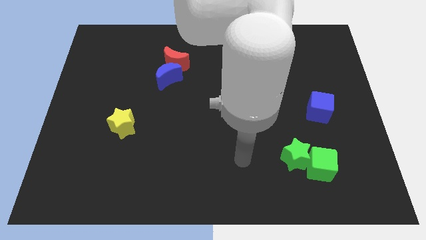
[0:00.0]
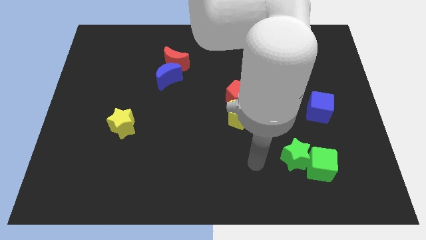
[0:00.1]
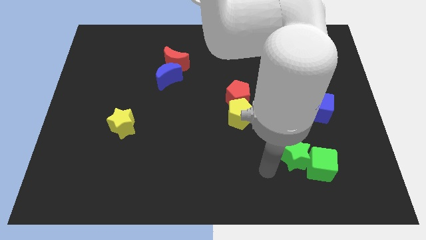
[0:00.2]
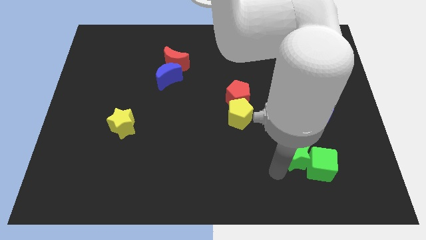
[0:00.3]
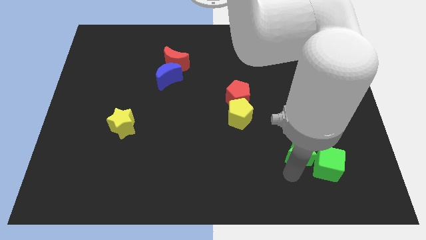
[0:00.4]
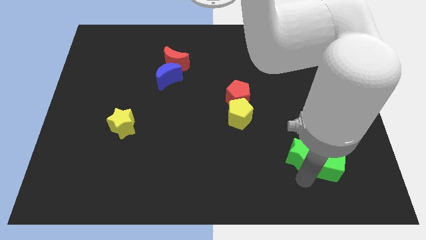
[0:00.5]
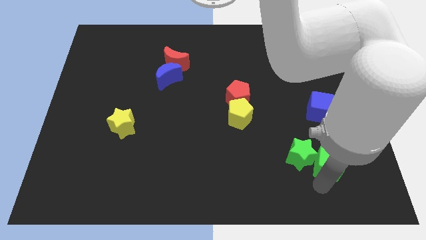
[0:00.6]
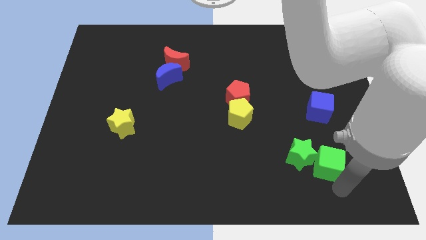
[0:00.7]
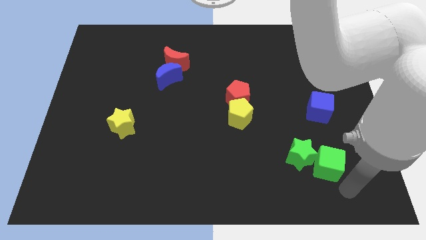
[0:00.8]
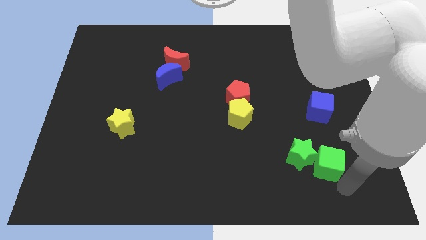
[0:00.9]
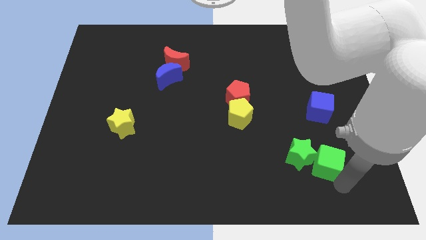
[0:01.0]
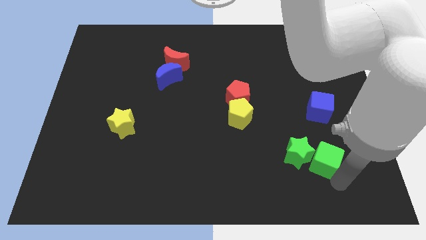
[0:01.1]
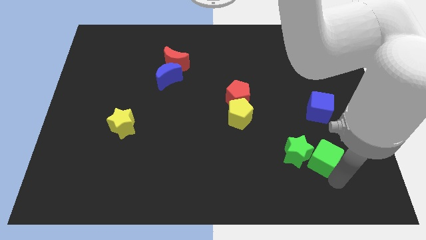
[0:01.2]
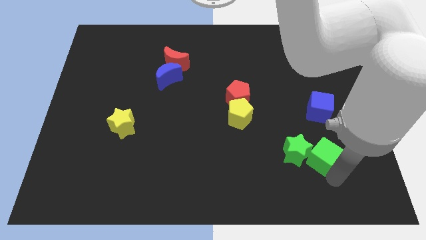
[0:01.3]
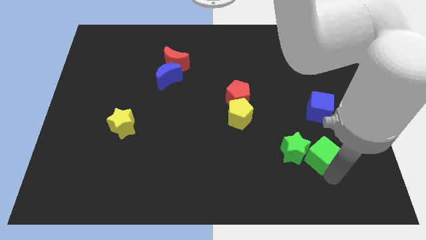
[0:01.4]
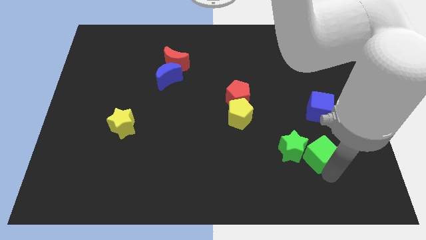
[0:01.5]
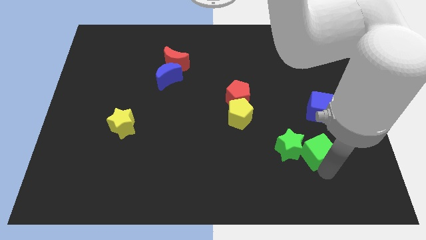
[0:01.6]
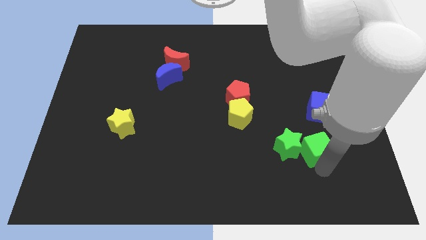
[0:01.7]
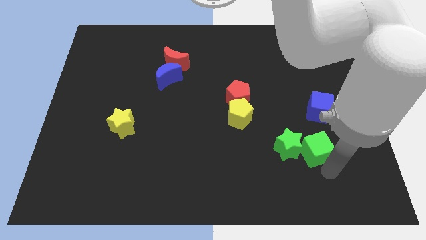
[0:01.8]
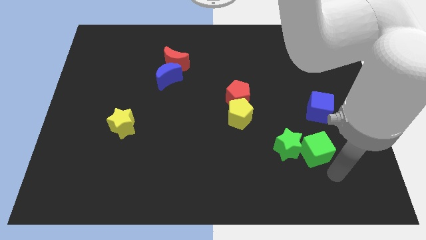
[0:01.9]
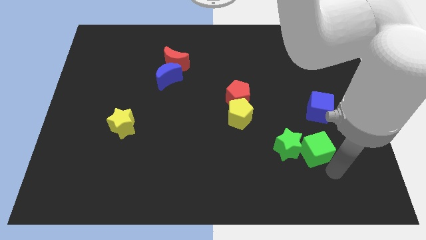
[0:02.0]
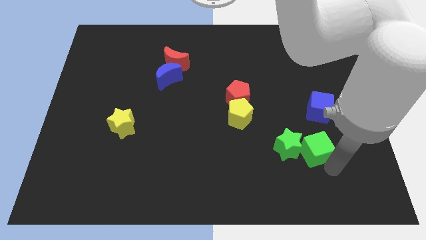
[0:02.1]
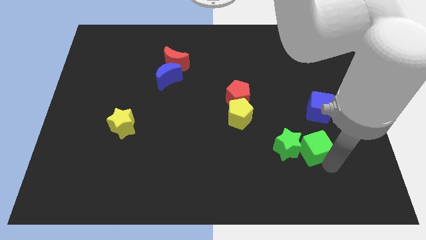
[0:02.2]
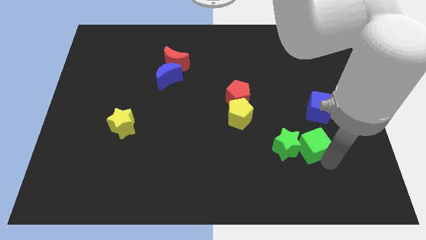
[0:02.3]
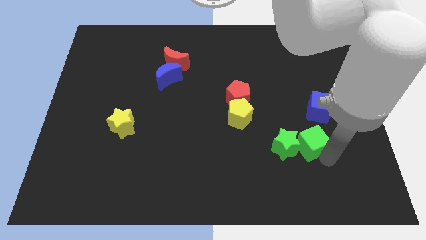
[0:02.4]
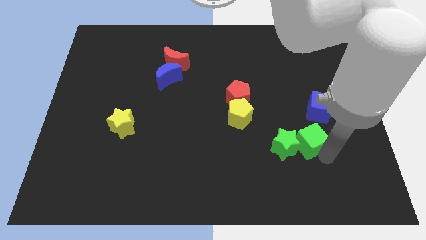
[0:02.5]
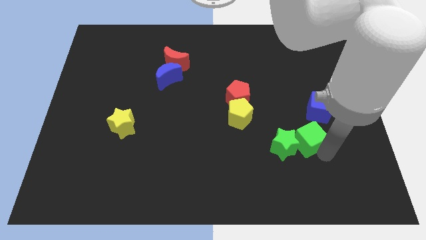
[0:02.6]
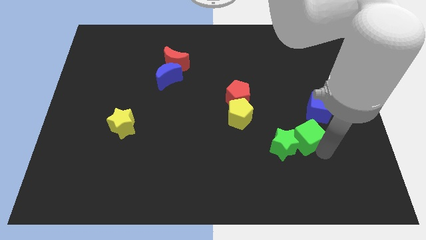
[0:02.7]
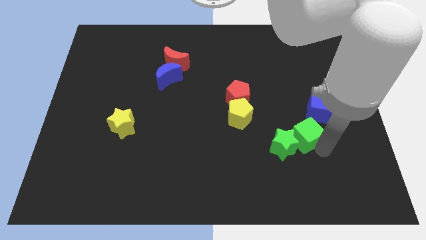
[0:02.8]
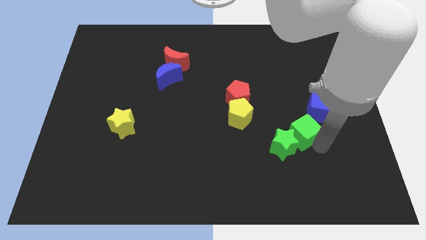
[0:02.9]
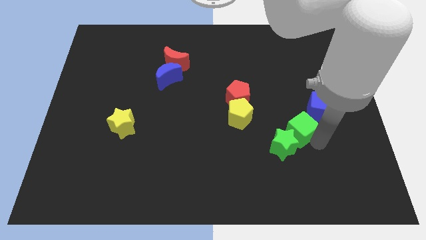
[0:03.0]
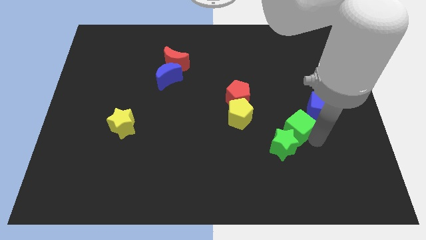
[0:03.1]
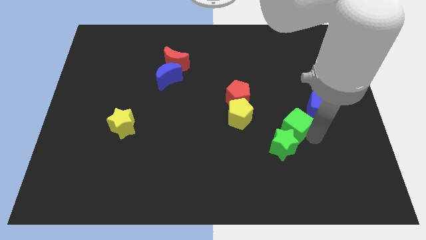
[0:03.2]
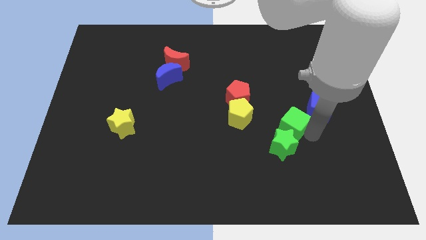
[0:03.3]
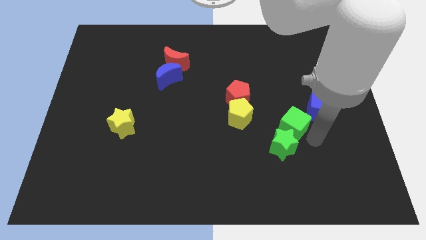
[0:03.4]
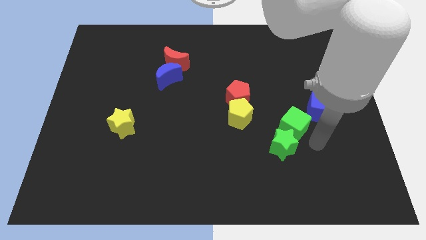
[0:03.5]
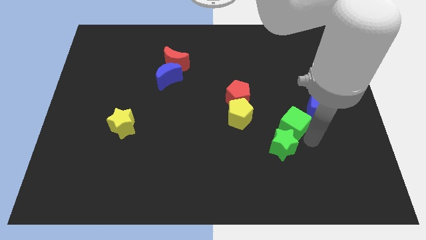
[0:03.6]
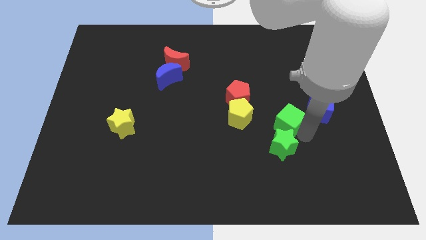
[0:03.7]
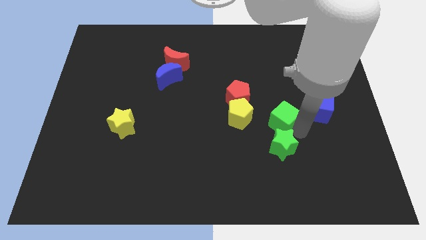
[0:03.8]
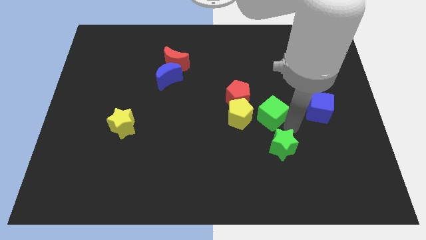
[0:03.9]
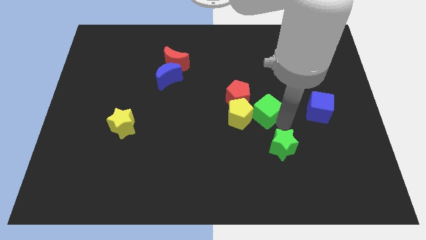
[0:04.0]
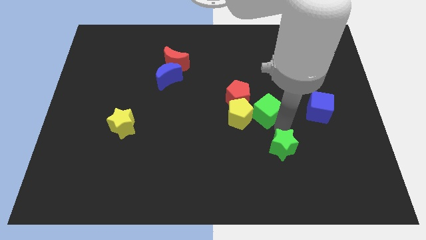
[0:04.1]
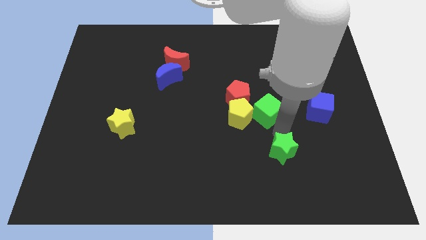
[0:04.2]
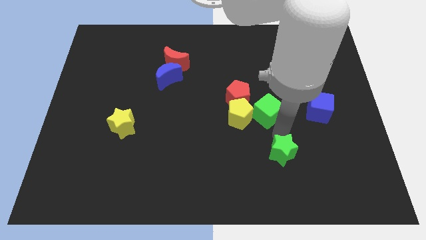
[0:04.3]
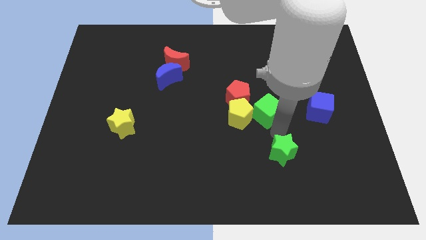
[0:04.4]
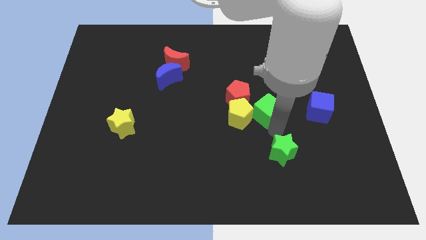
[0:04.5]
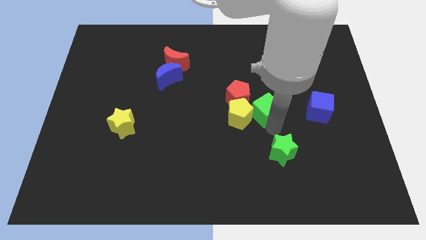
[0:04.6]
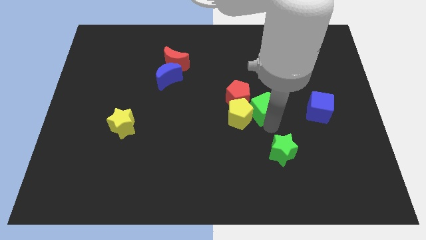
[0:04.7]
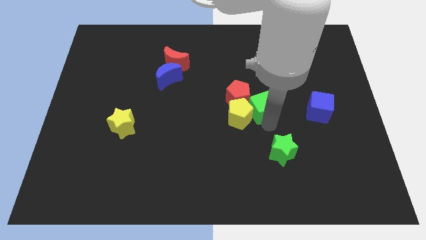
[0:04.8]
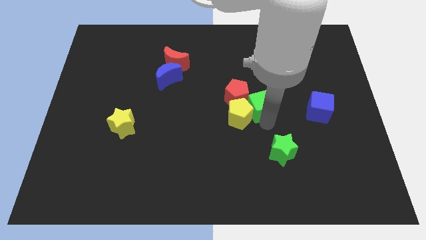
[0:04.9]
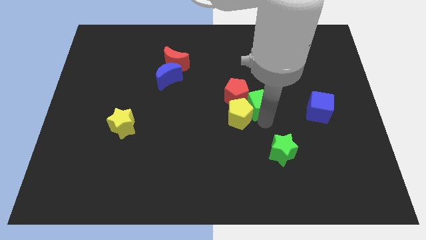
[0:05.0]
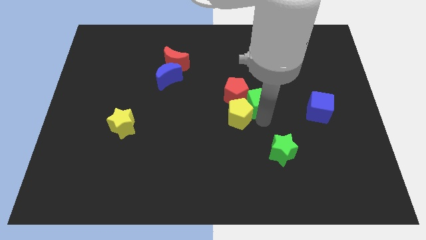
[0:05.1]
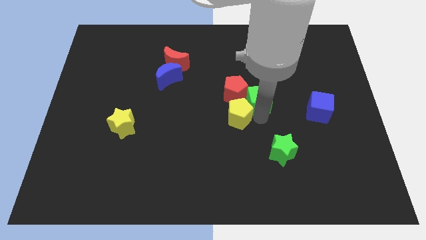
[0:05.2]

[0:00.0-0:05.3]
move the green cube up and left

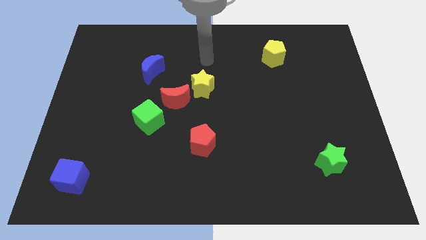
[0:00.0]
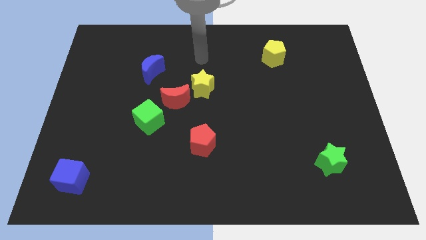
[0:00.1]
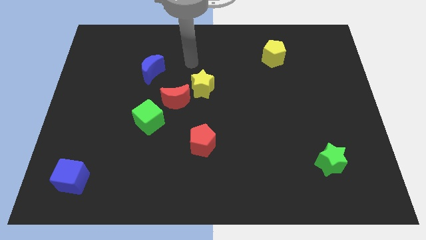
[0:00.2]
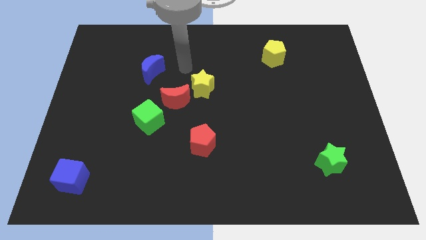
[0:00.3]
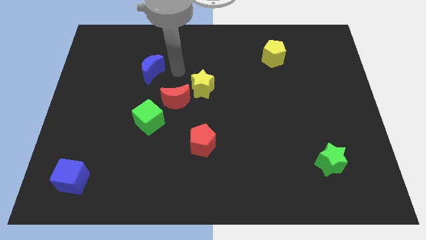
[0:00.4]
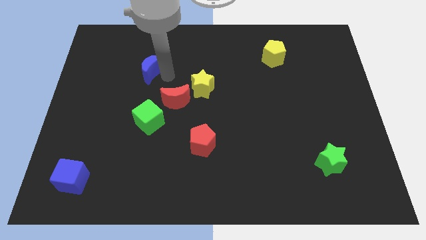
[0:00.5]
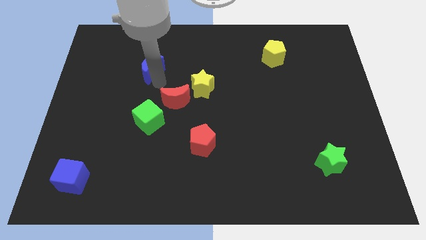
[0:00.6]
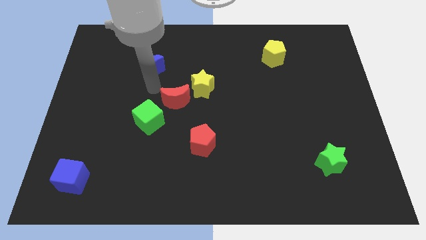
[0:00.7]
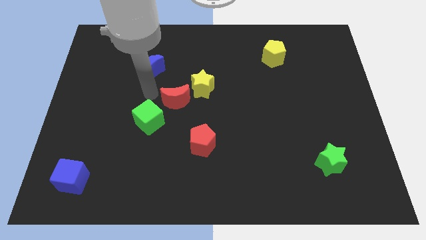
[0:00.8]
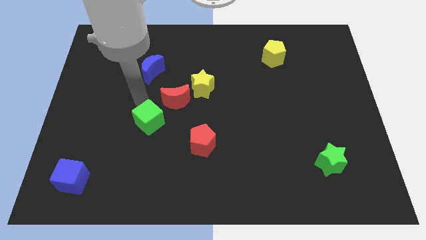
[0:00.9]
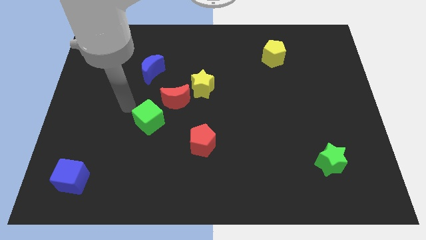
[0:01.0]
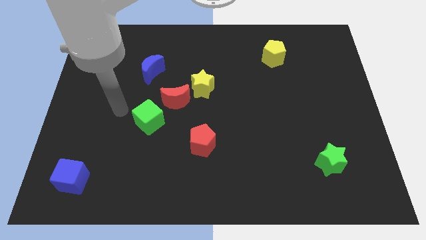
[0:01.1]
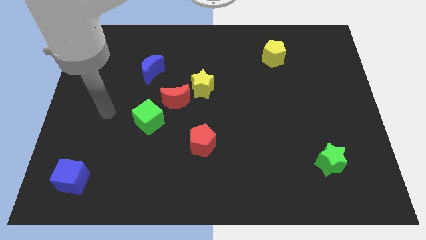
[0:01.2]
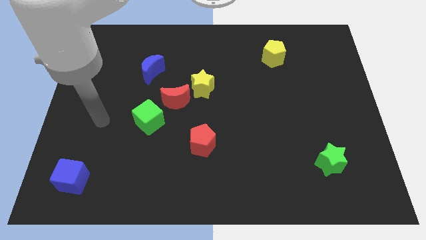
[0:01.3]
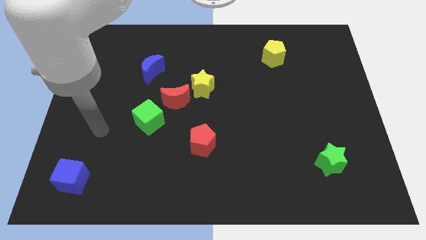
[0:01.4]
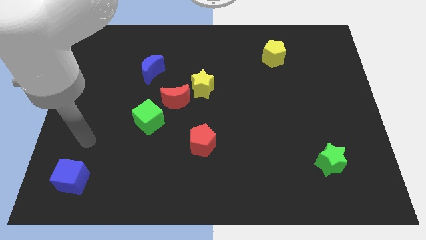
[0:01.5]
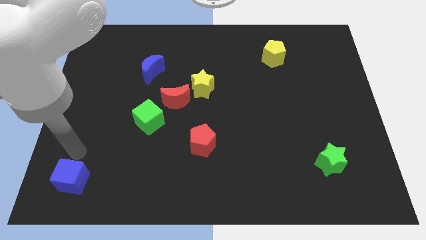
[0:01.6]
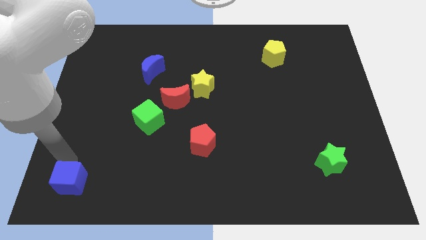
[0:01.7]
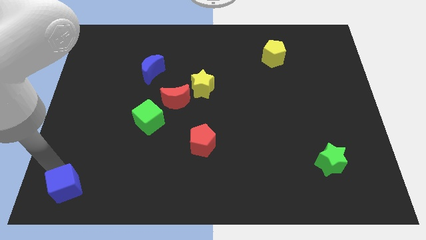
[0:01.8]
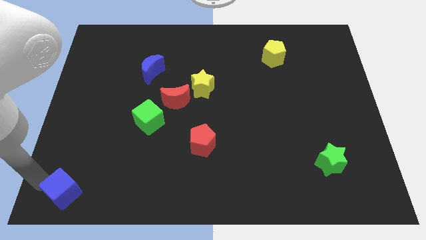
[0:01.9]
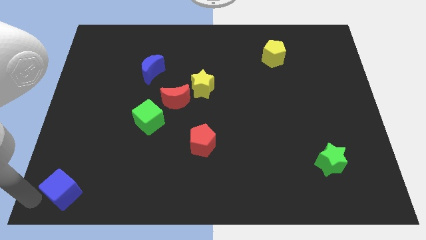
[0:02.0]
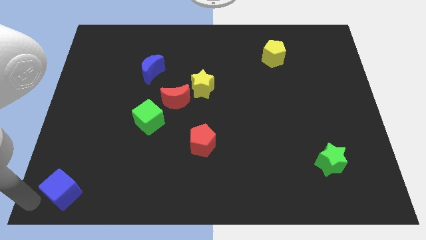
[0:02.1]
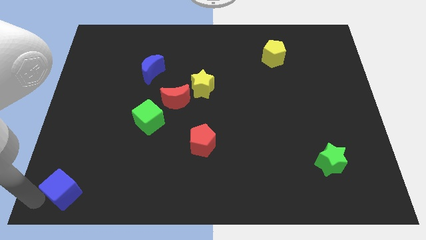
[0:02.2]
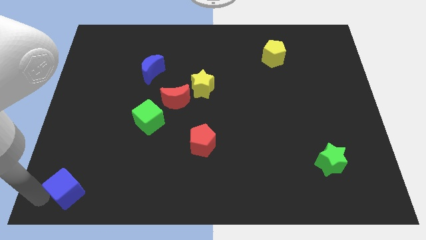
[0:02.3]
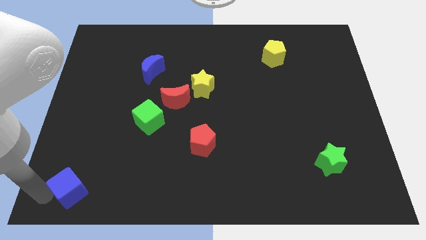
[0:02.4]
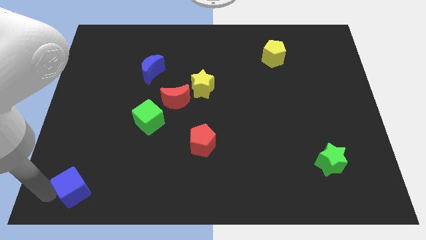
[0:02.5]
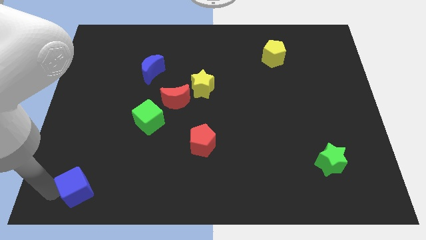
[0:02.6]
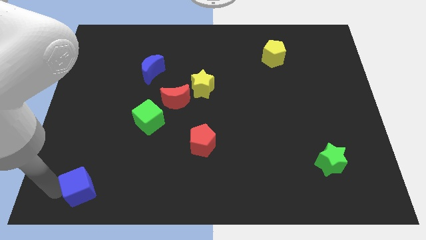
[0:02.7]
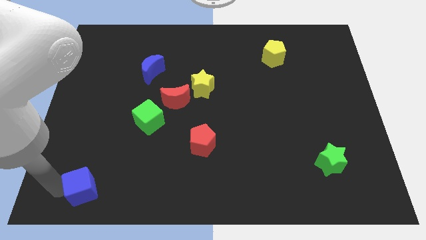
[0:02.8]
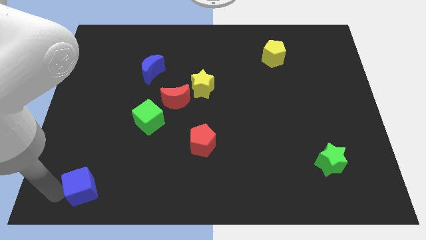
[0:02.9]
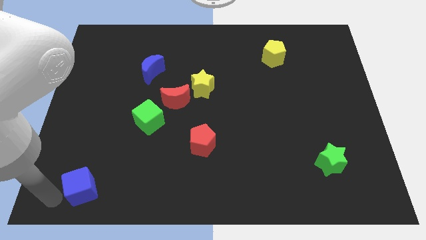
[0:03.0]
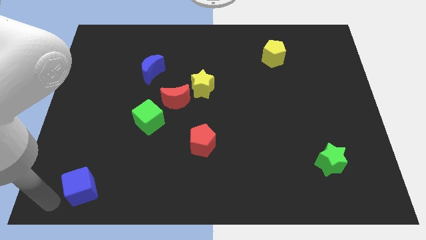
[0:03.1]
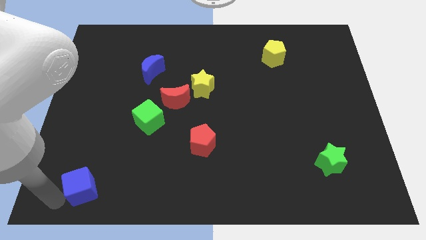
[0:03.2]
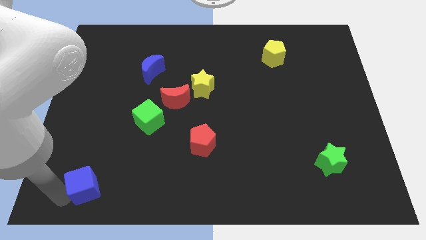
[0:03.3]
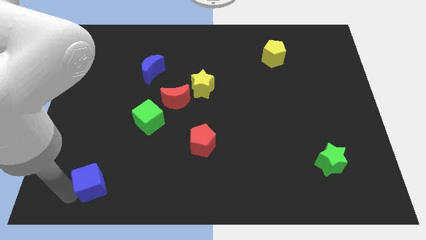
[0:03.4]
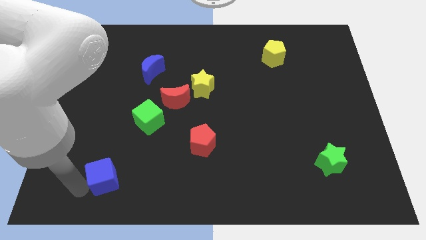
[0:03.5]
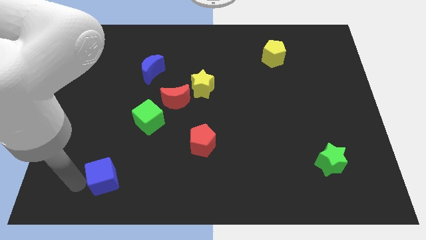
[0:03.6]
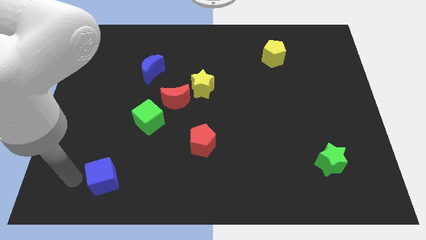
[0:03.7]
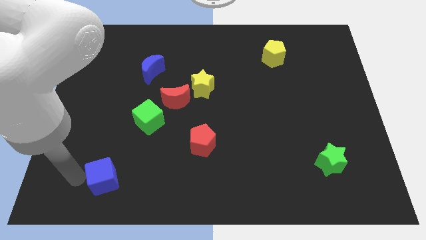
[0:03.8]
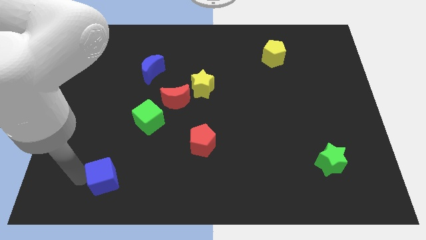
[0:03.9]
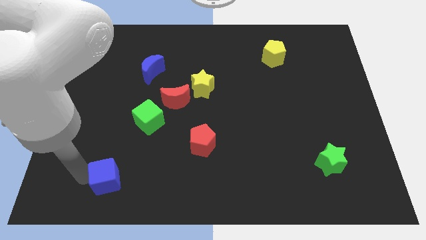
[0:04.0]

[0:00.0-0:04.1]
slightly move the blue cube to the right
